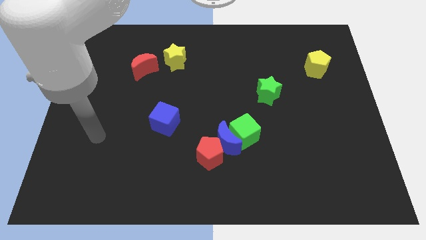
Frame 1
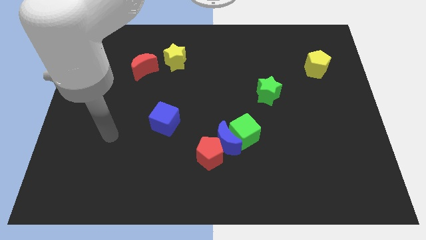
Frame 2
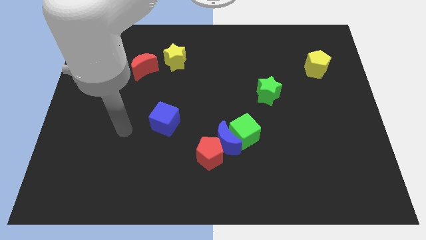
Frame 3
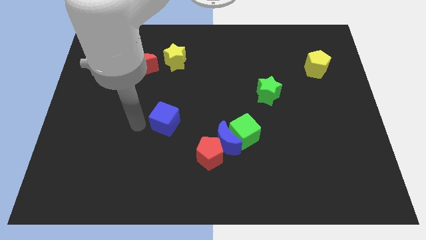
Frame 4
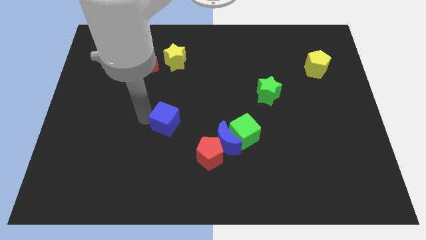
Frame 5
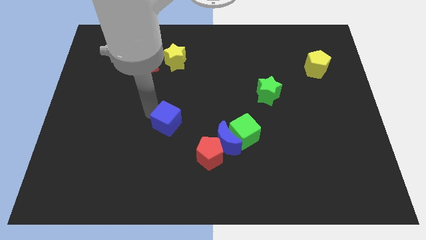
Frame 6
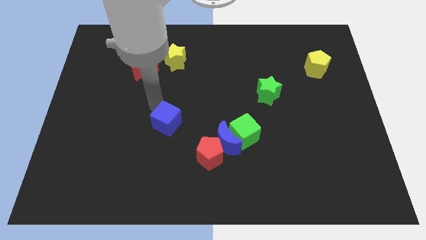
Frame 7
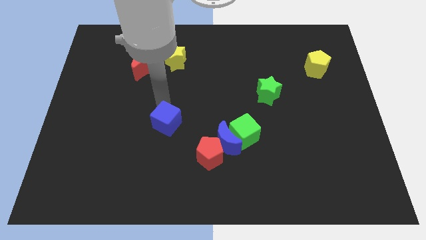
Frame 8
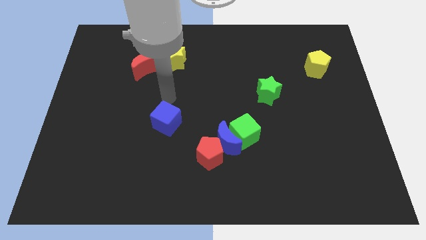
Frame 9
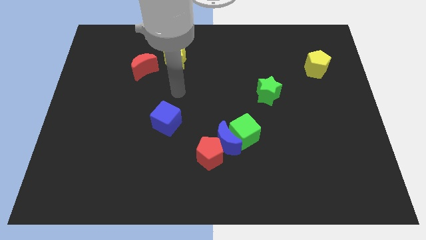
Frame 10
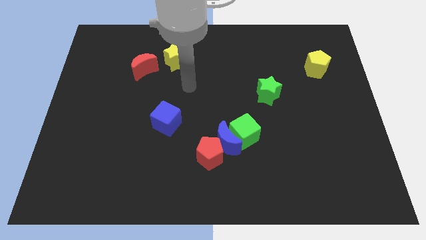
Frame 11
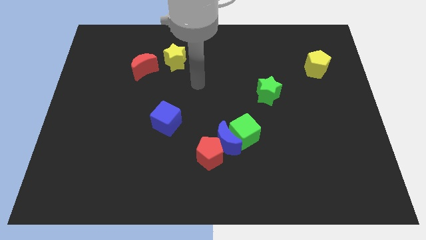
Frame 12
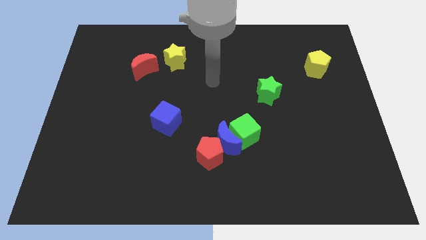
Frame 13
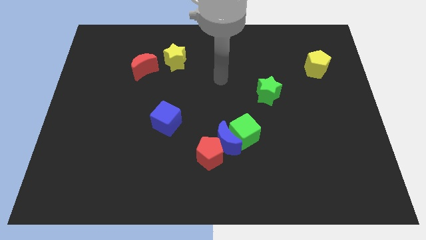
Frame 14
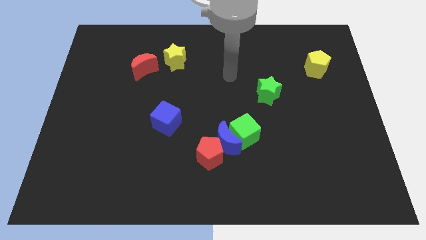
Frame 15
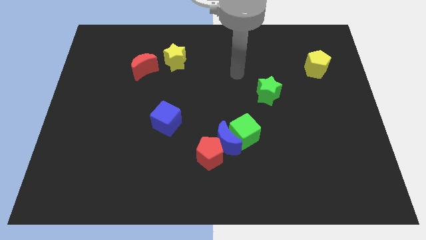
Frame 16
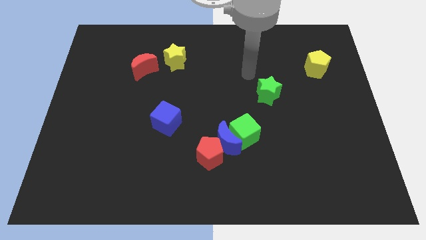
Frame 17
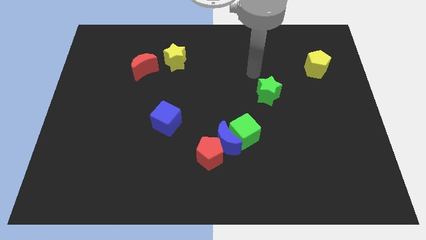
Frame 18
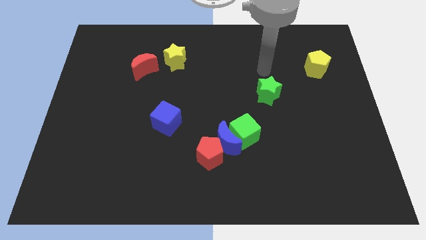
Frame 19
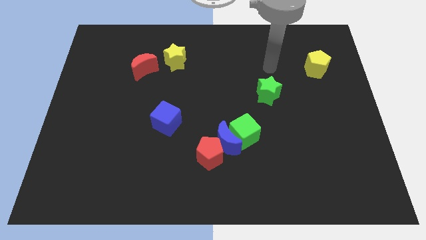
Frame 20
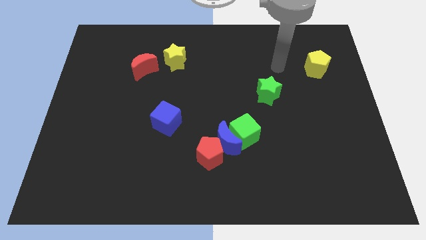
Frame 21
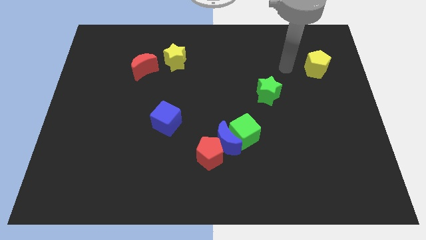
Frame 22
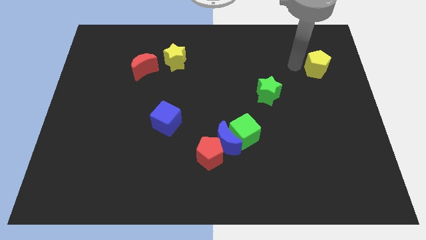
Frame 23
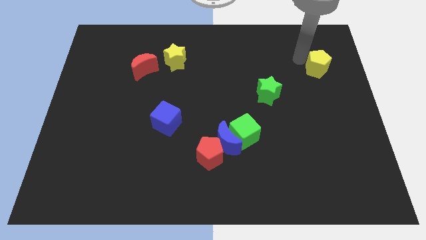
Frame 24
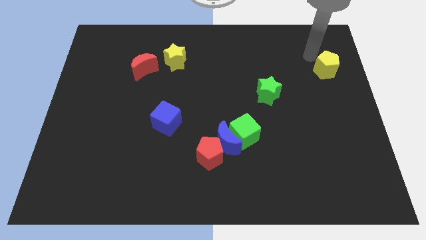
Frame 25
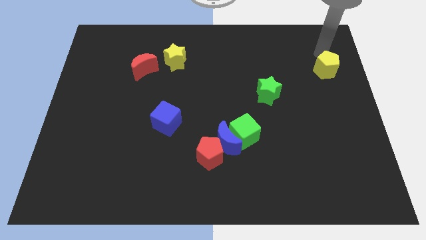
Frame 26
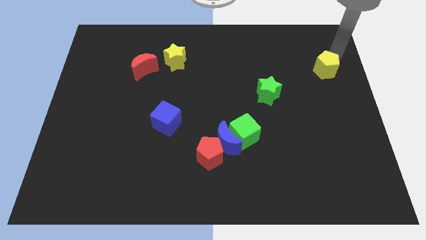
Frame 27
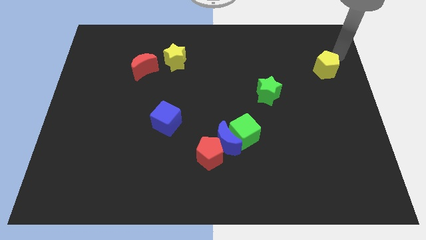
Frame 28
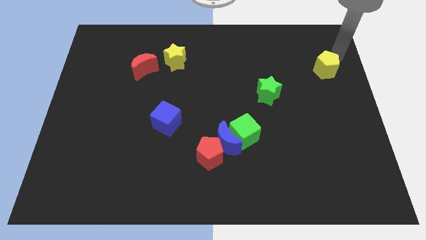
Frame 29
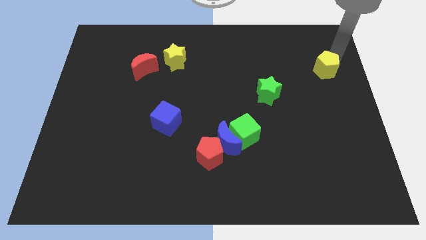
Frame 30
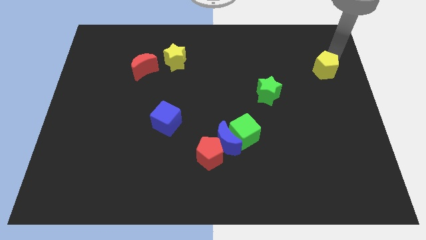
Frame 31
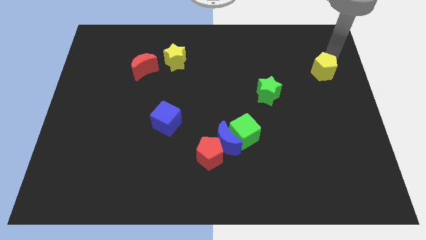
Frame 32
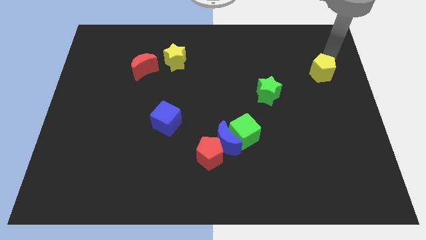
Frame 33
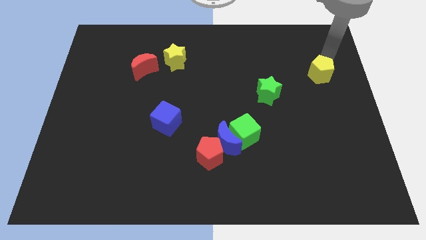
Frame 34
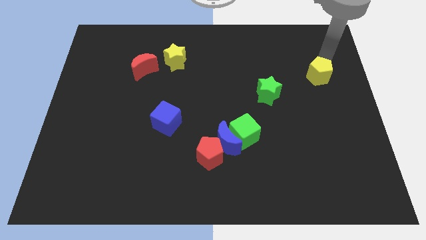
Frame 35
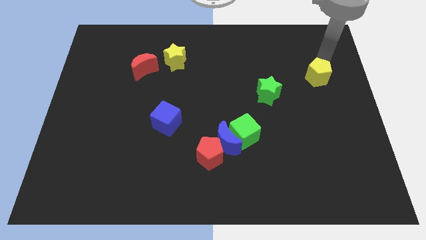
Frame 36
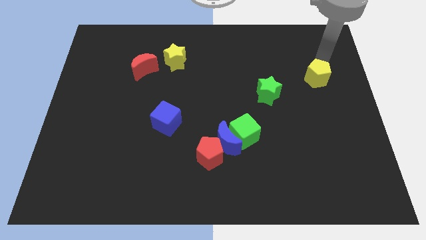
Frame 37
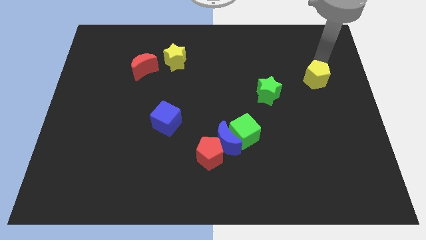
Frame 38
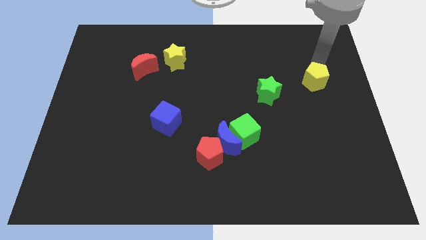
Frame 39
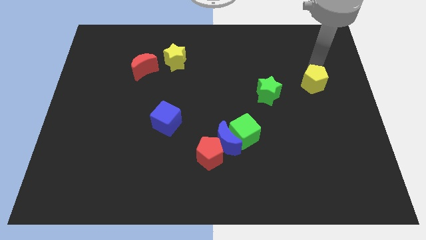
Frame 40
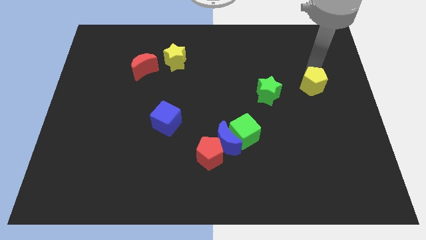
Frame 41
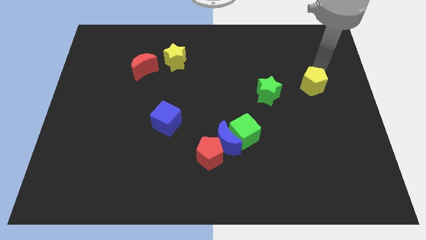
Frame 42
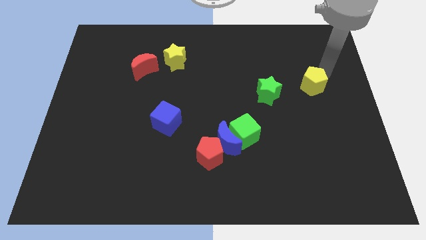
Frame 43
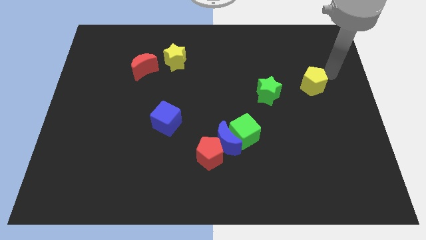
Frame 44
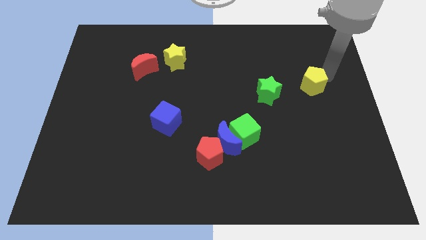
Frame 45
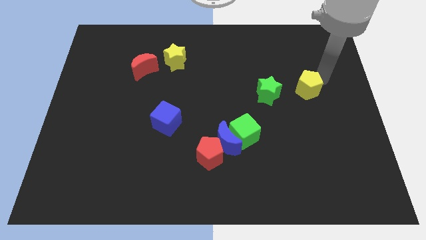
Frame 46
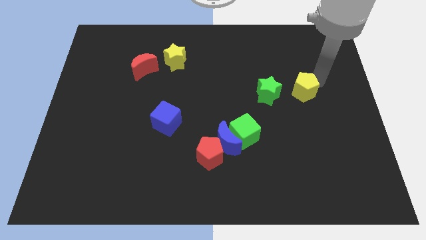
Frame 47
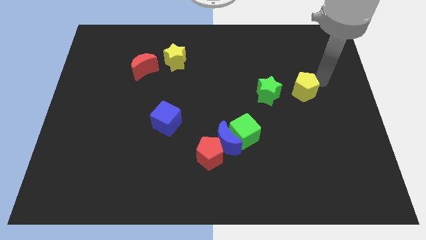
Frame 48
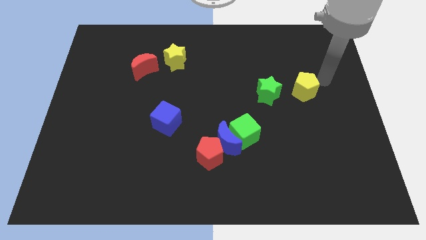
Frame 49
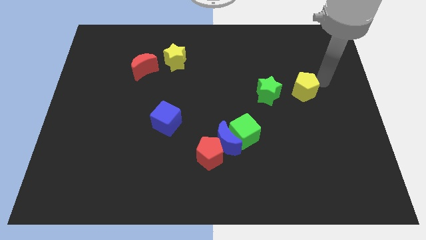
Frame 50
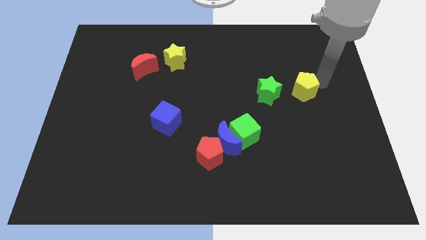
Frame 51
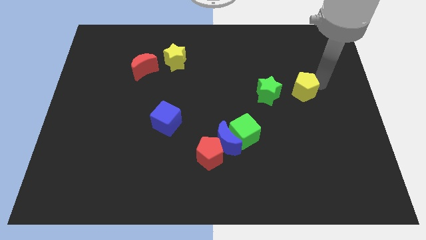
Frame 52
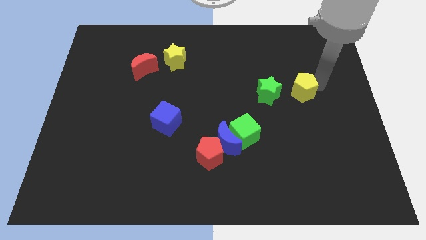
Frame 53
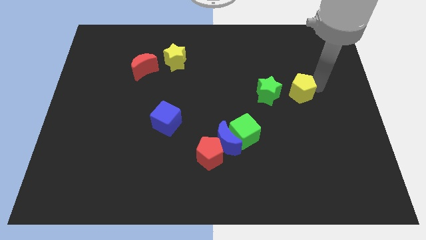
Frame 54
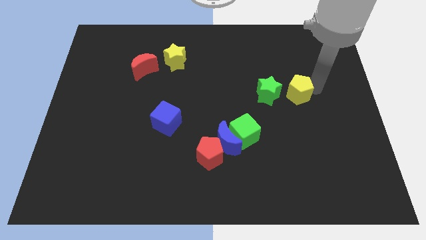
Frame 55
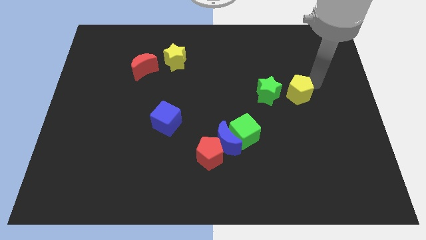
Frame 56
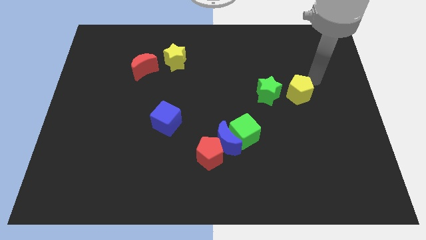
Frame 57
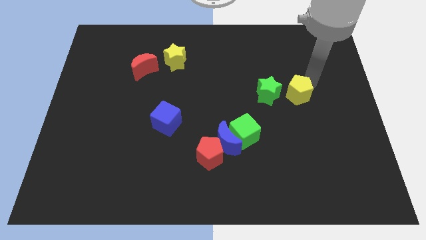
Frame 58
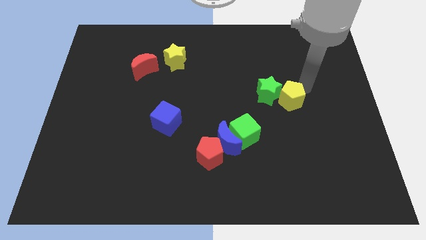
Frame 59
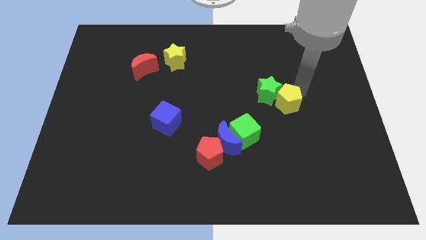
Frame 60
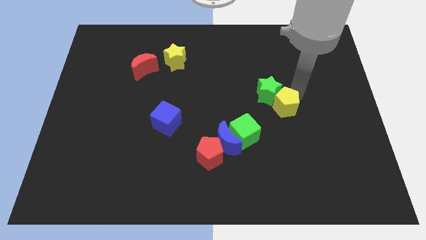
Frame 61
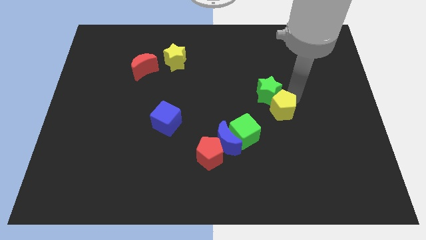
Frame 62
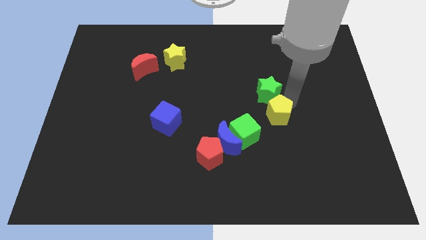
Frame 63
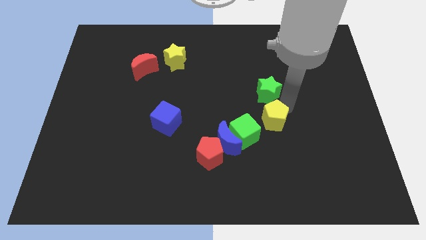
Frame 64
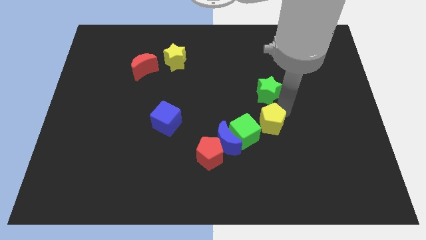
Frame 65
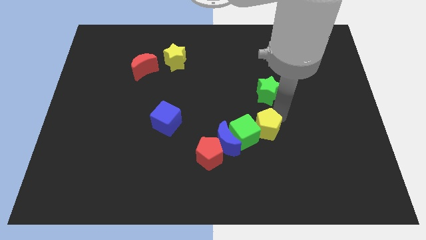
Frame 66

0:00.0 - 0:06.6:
move the yellow pentagon close to the green cube
